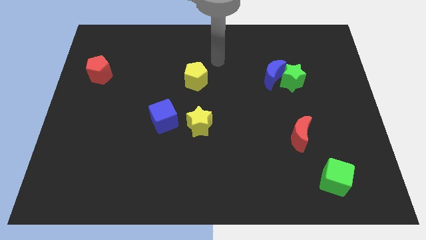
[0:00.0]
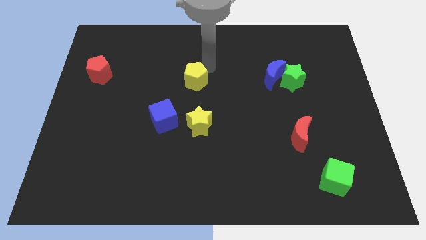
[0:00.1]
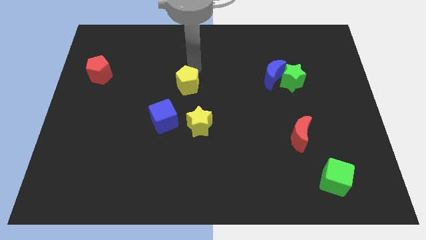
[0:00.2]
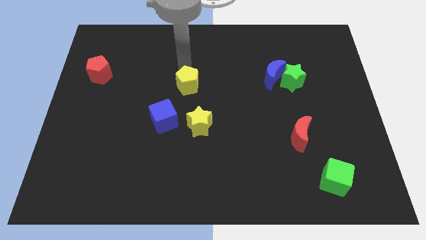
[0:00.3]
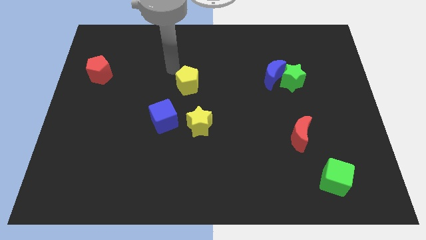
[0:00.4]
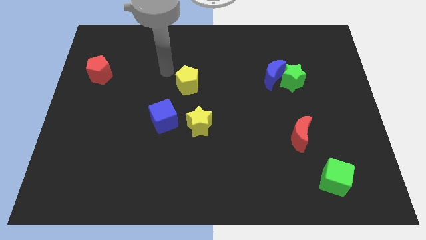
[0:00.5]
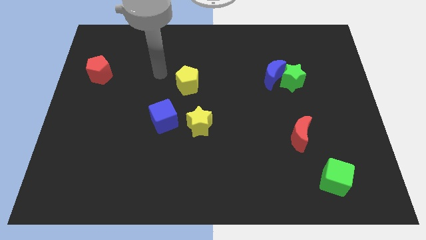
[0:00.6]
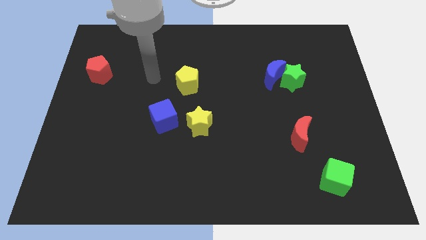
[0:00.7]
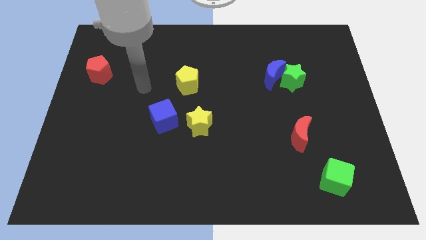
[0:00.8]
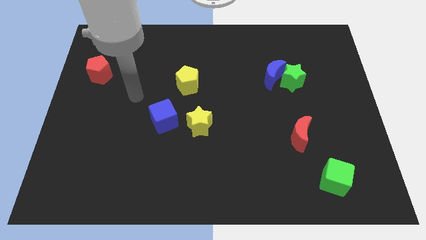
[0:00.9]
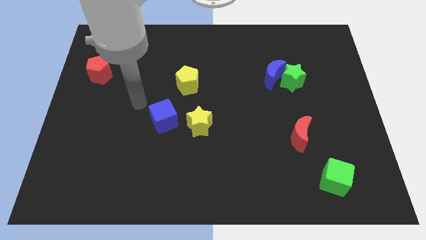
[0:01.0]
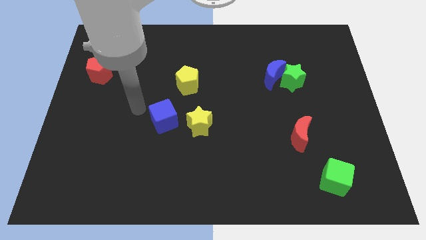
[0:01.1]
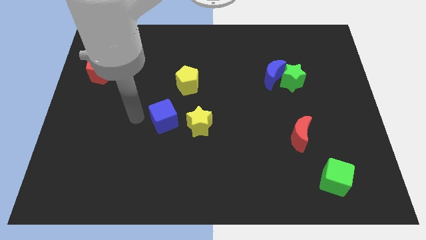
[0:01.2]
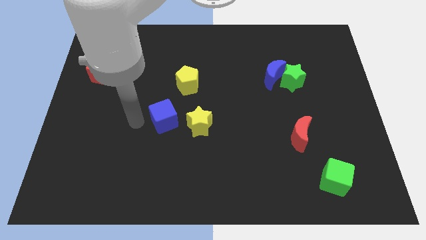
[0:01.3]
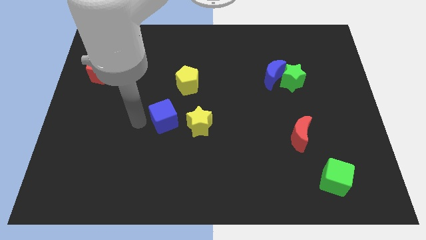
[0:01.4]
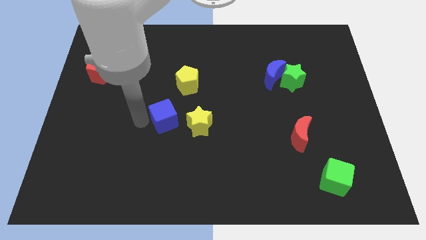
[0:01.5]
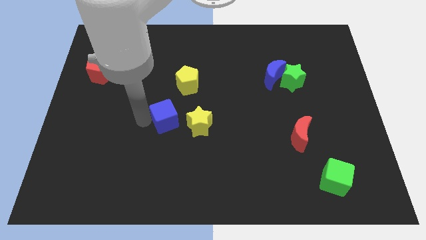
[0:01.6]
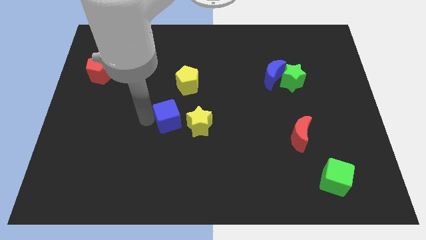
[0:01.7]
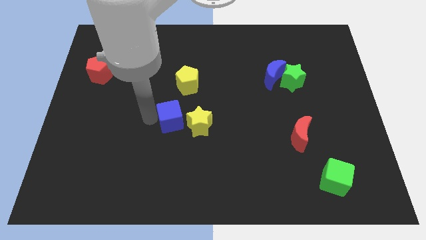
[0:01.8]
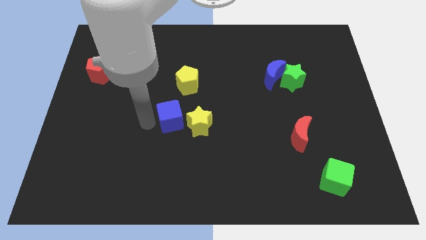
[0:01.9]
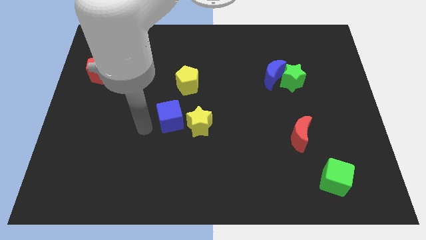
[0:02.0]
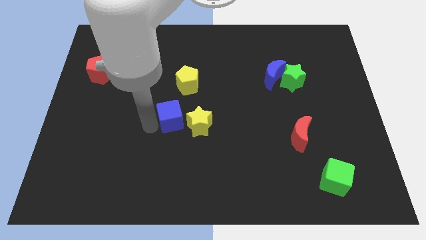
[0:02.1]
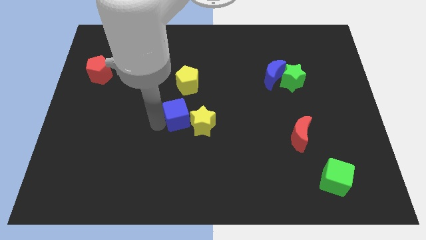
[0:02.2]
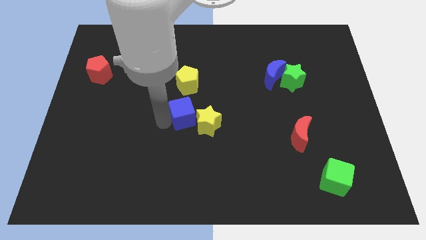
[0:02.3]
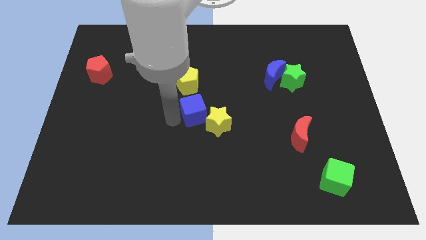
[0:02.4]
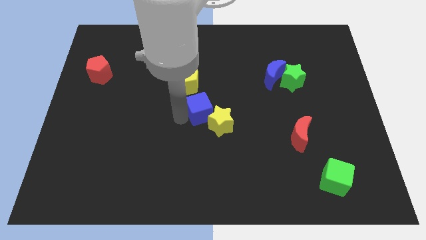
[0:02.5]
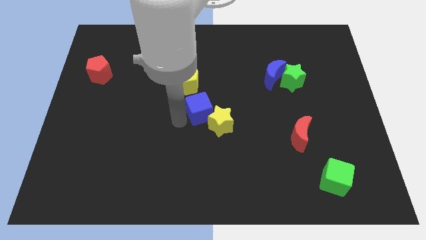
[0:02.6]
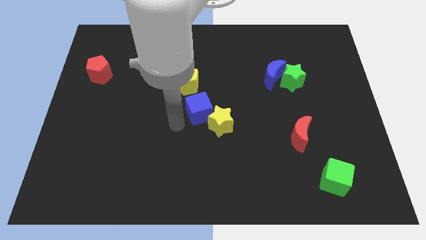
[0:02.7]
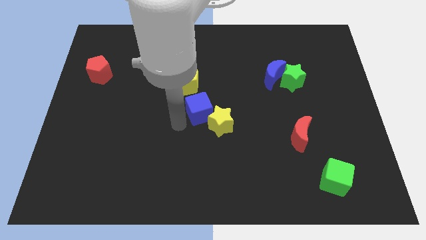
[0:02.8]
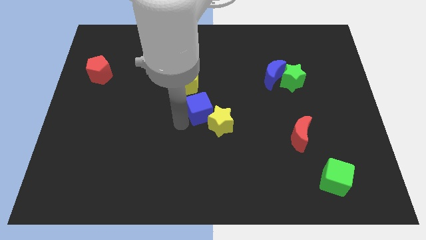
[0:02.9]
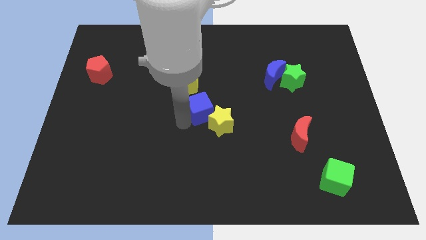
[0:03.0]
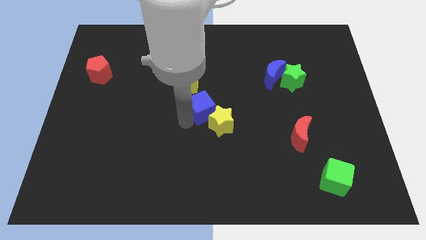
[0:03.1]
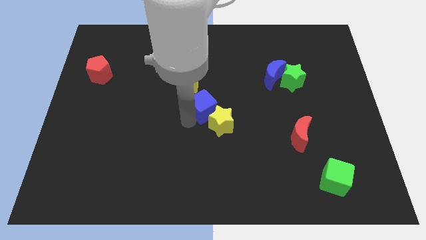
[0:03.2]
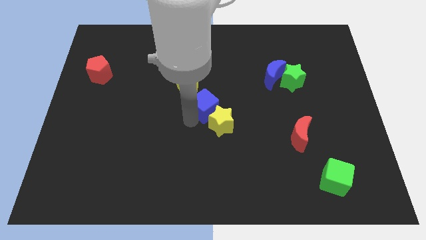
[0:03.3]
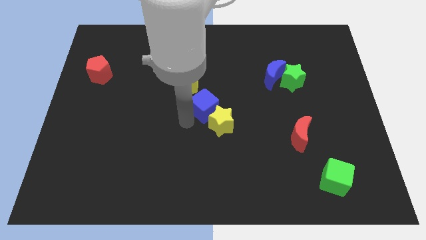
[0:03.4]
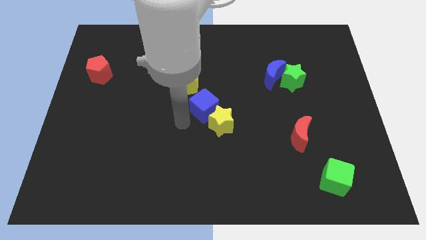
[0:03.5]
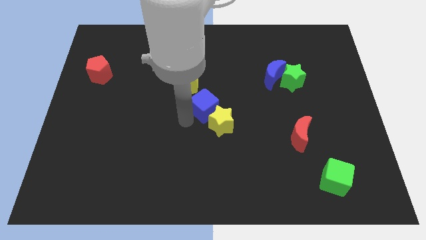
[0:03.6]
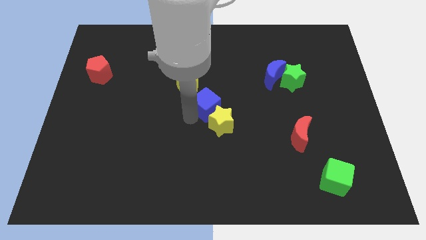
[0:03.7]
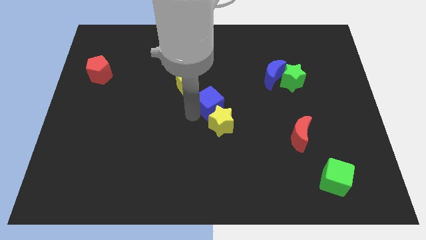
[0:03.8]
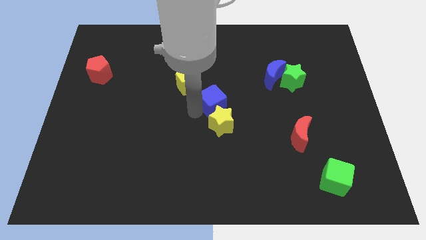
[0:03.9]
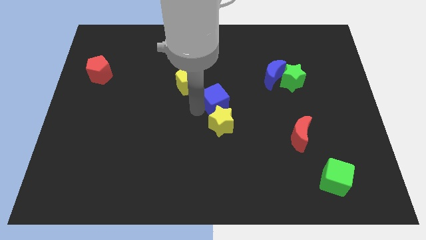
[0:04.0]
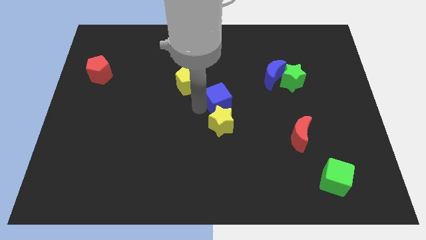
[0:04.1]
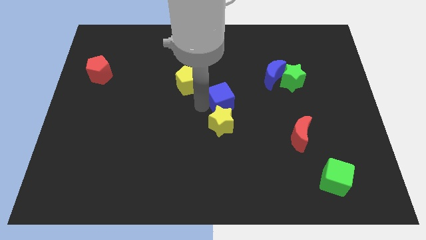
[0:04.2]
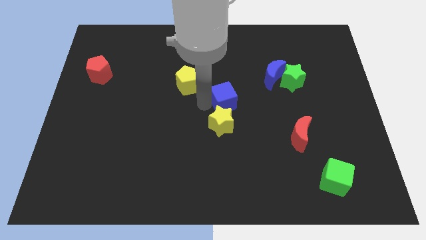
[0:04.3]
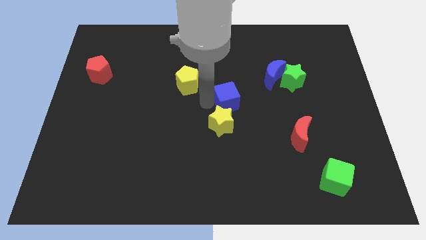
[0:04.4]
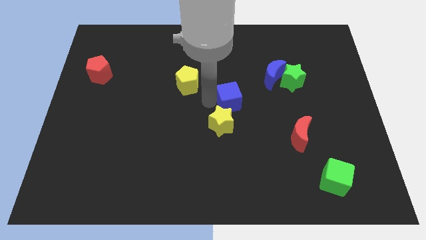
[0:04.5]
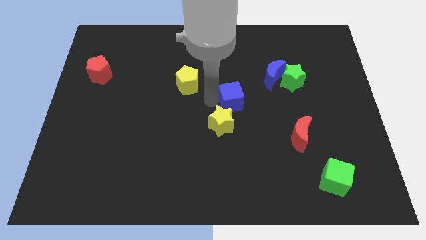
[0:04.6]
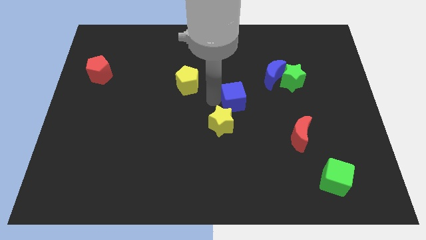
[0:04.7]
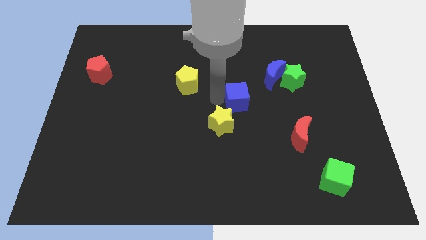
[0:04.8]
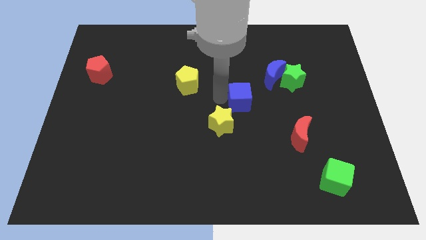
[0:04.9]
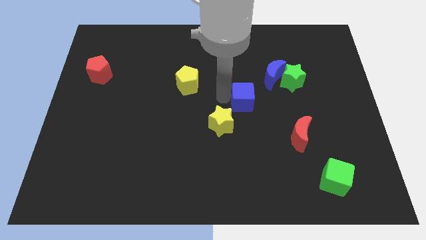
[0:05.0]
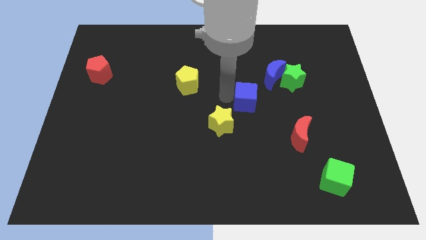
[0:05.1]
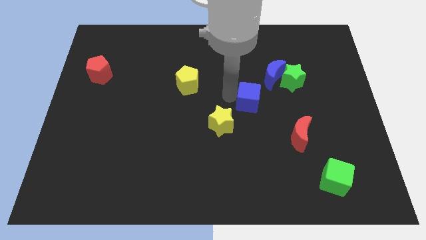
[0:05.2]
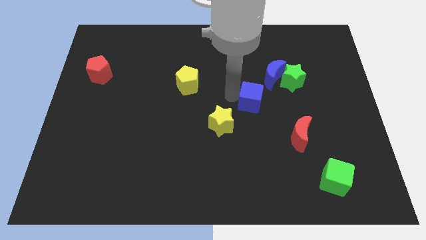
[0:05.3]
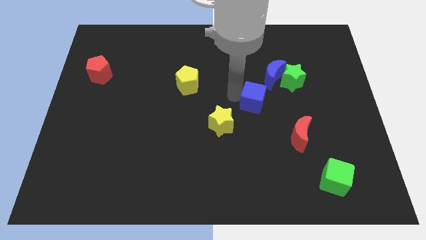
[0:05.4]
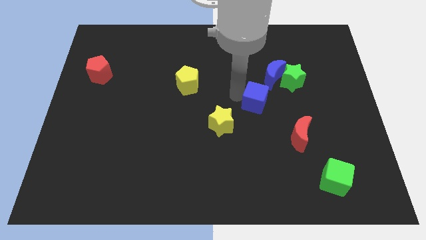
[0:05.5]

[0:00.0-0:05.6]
move the blue cube right

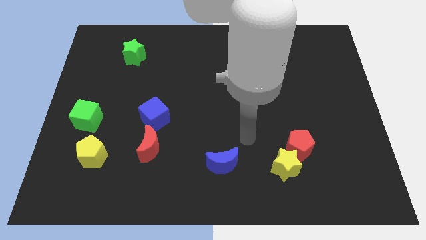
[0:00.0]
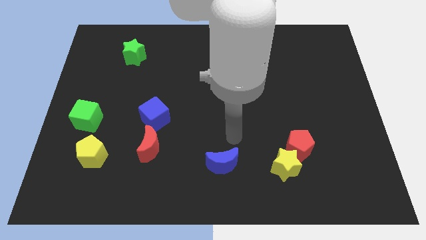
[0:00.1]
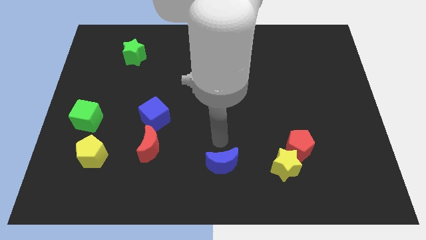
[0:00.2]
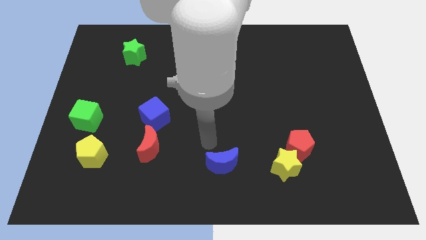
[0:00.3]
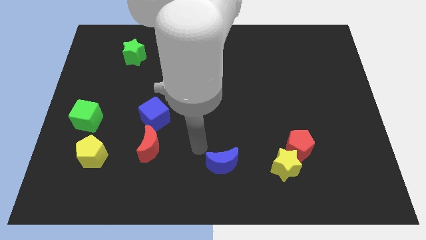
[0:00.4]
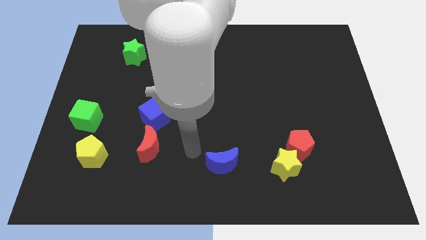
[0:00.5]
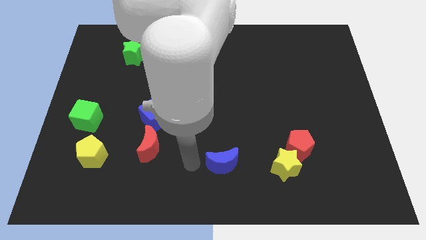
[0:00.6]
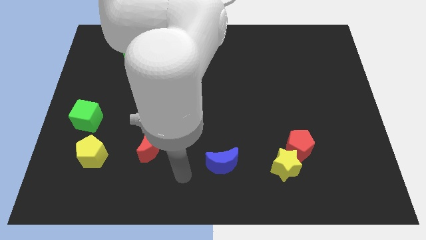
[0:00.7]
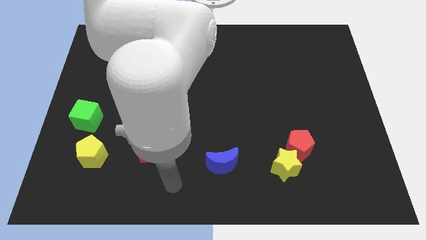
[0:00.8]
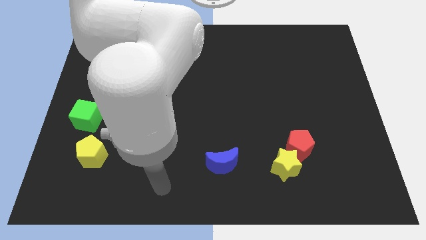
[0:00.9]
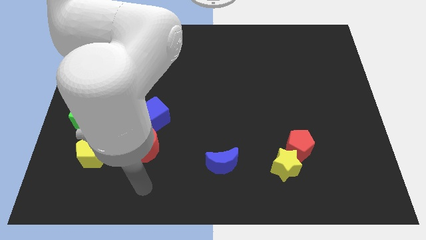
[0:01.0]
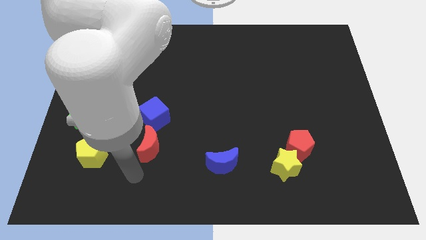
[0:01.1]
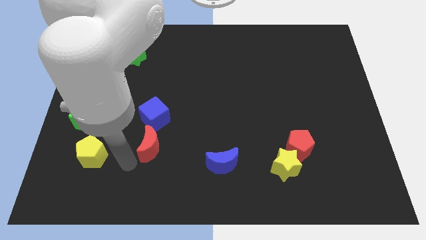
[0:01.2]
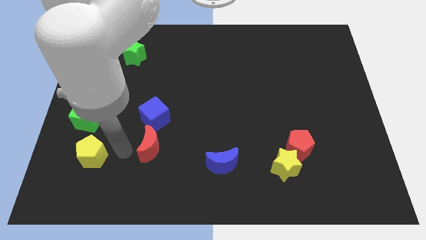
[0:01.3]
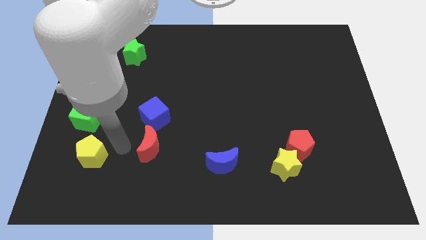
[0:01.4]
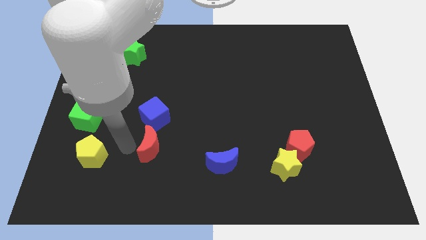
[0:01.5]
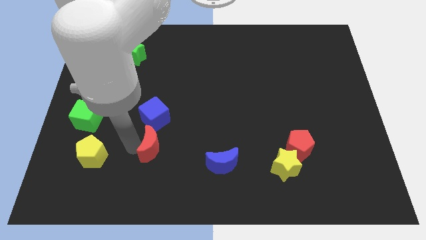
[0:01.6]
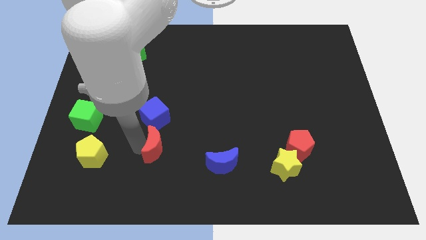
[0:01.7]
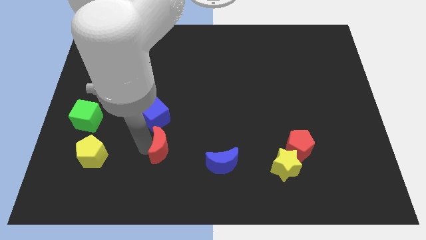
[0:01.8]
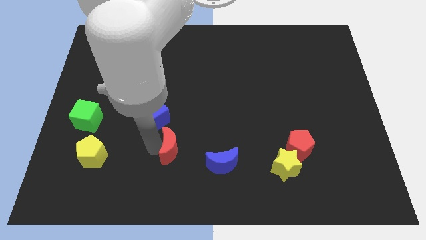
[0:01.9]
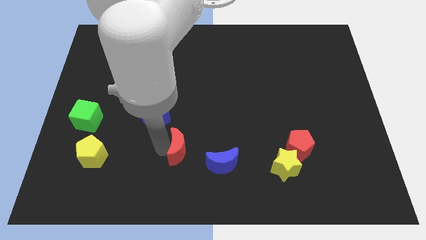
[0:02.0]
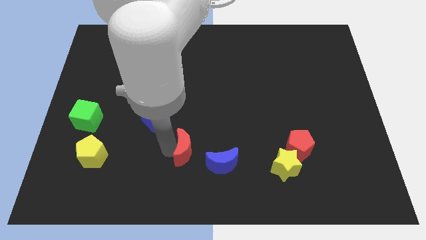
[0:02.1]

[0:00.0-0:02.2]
move the red moon to the right a little
